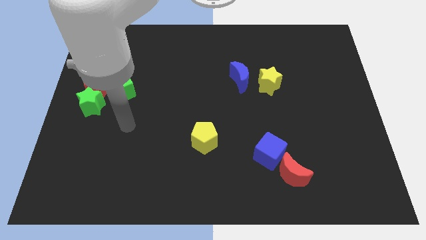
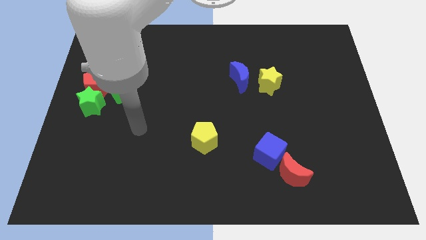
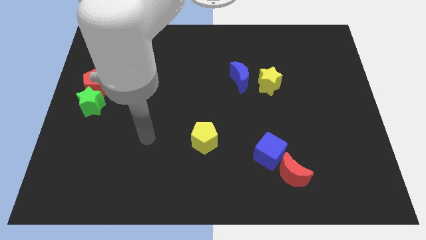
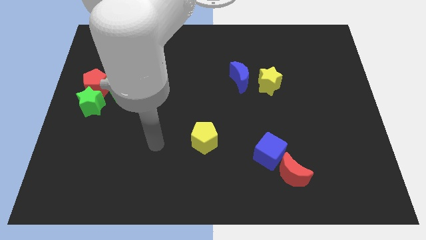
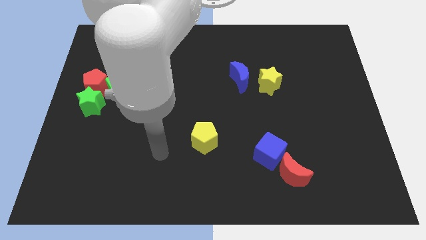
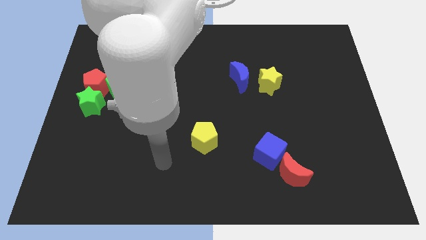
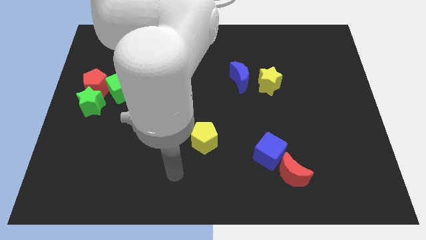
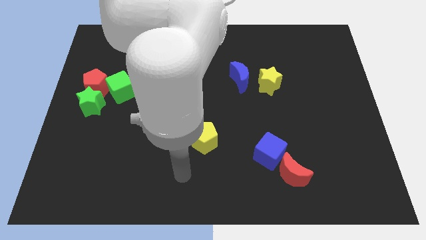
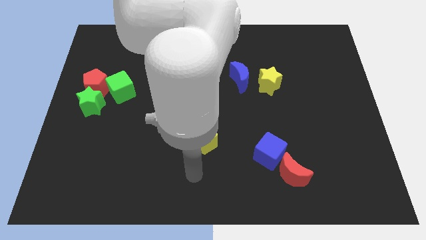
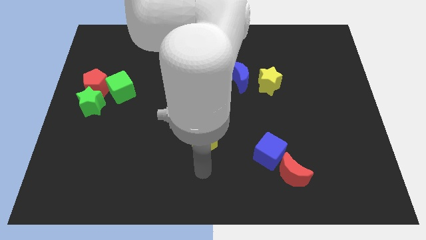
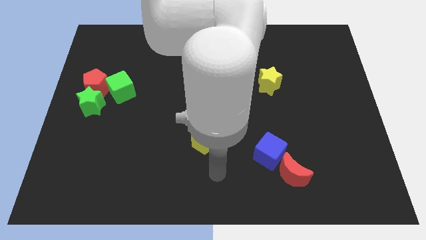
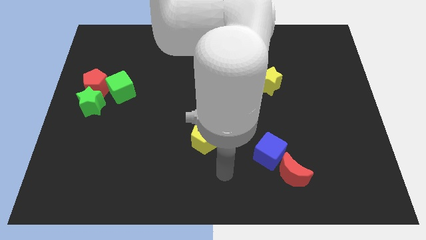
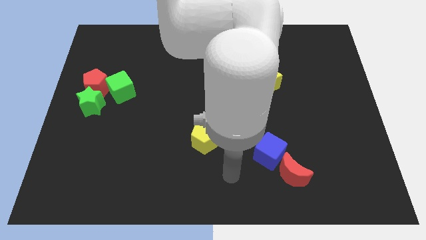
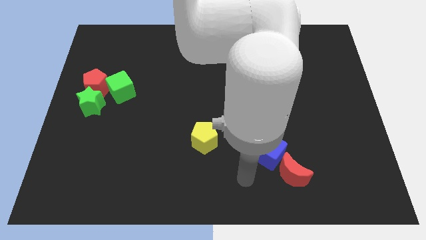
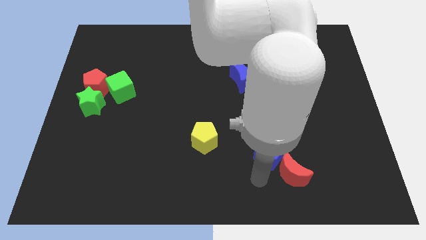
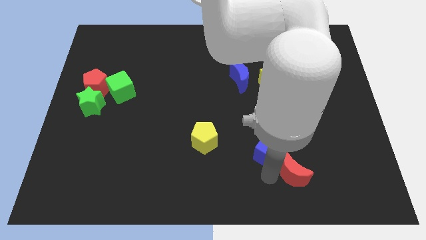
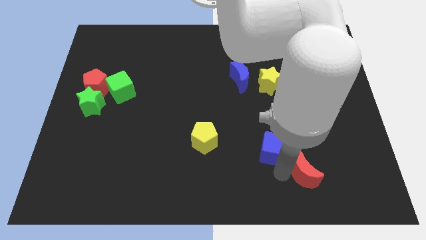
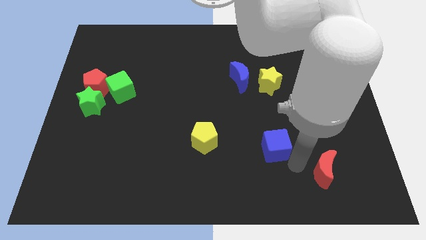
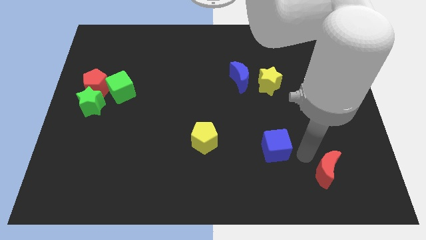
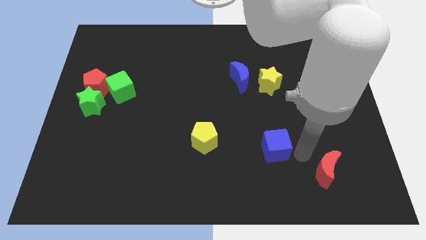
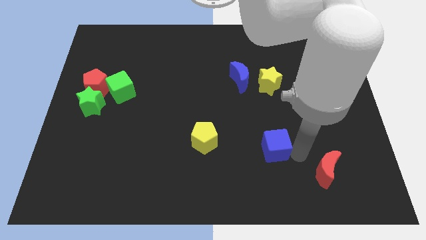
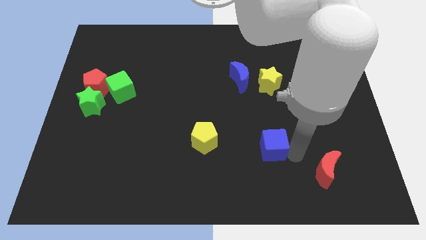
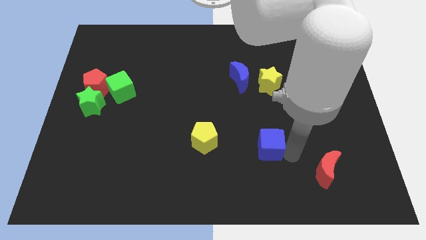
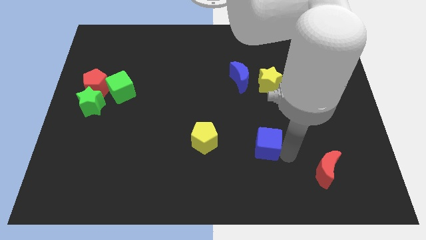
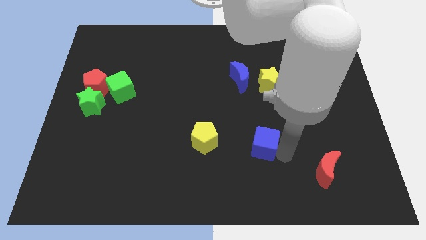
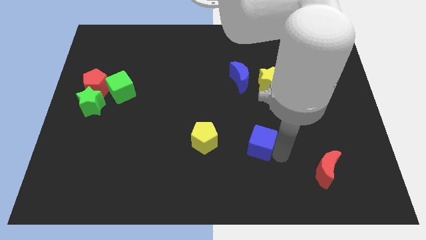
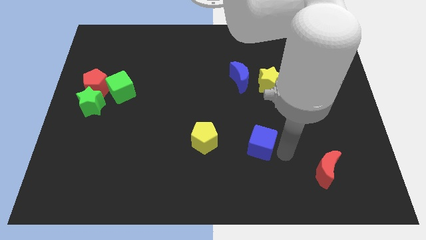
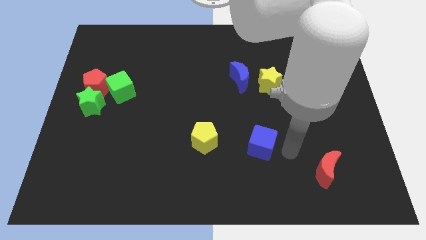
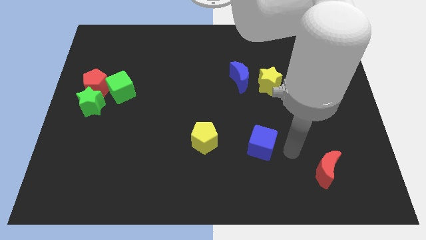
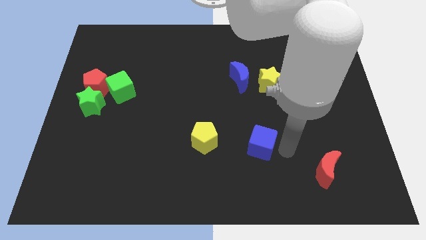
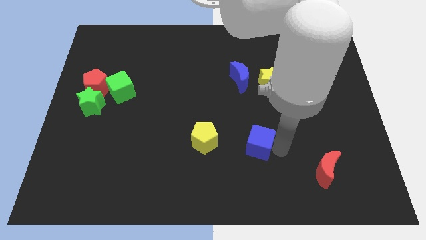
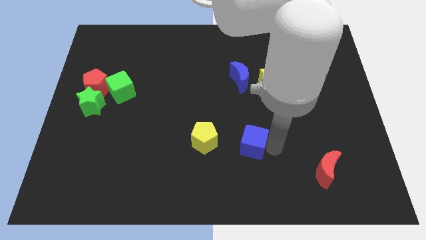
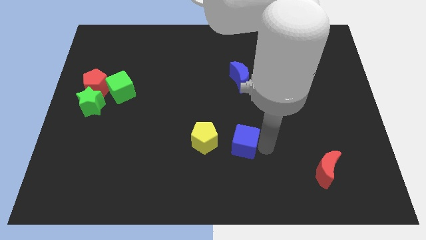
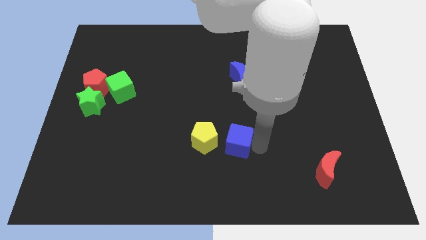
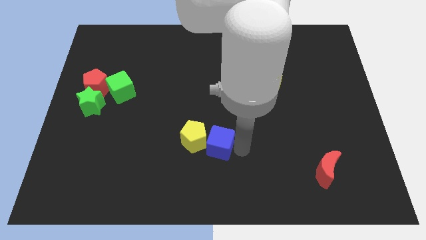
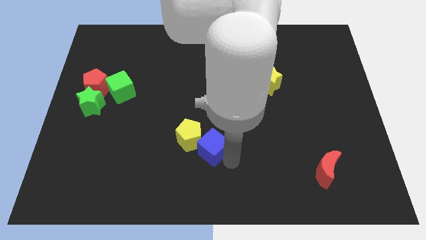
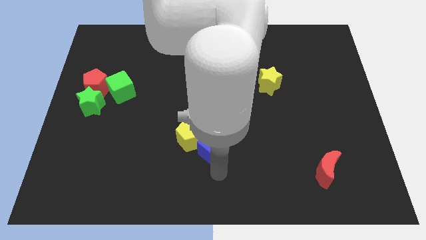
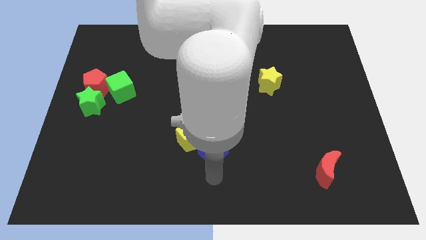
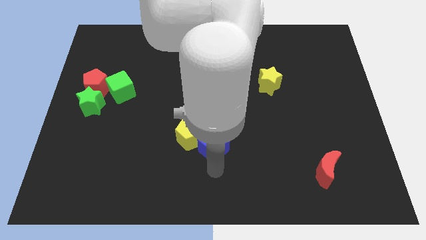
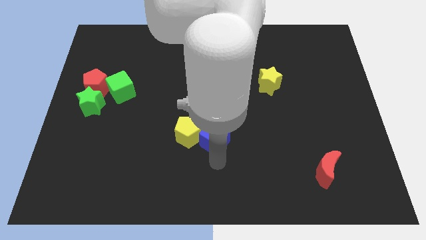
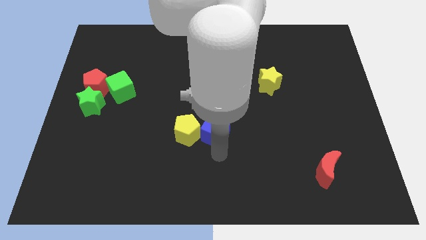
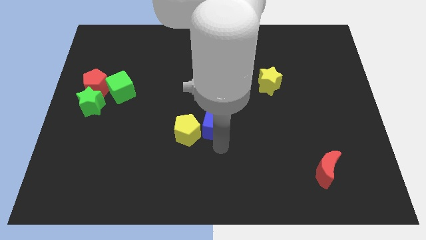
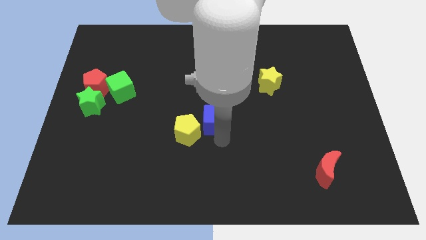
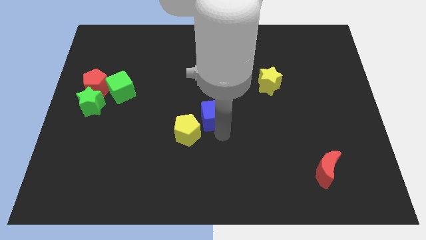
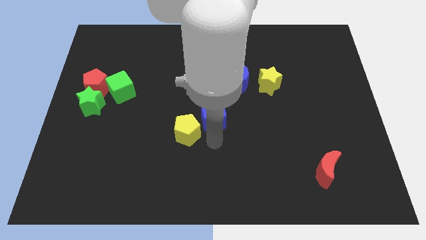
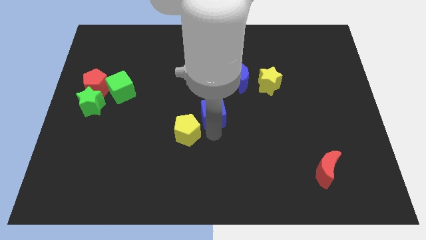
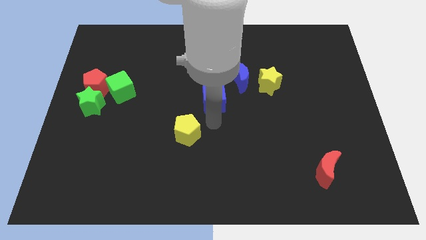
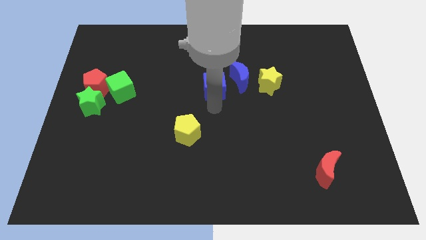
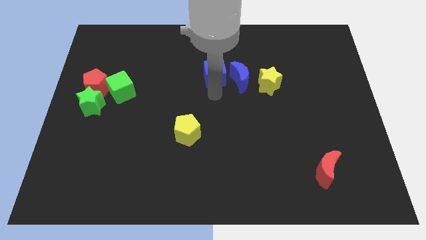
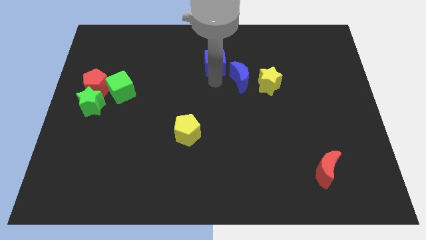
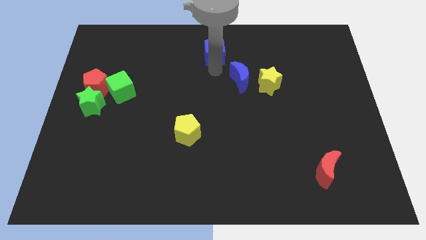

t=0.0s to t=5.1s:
push the blue cube to the towards your base

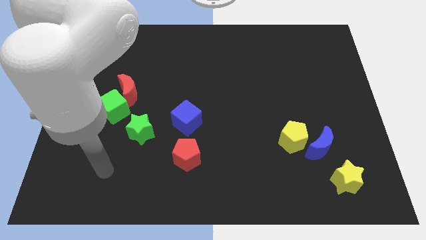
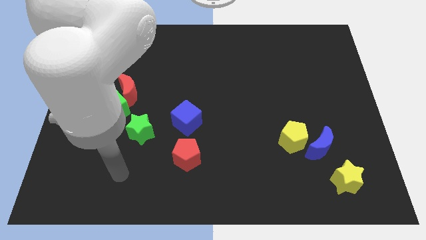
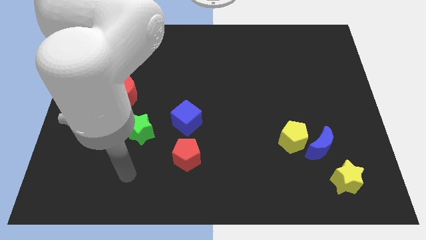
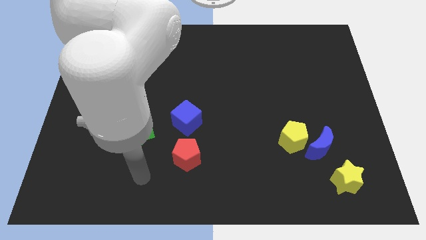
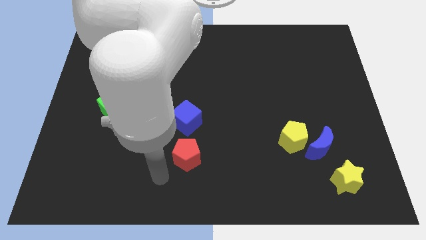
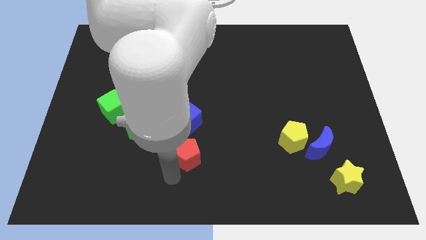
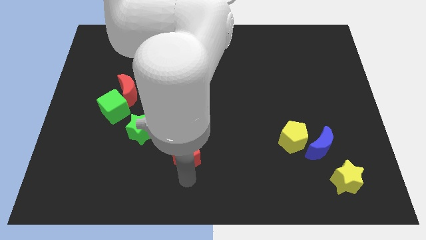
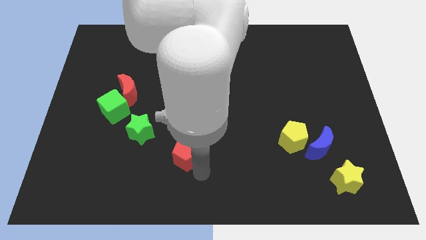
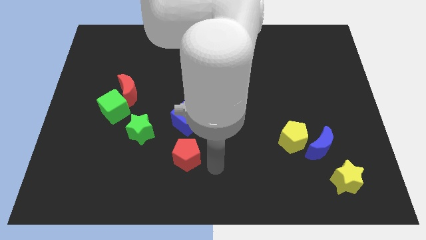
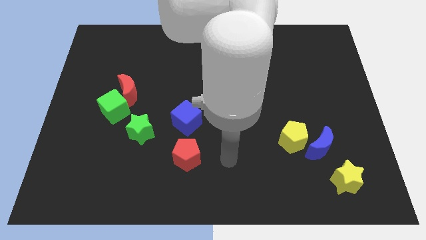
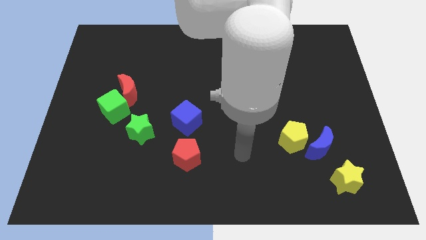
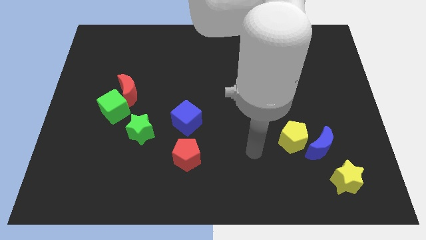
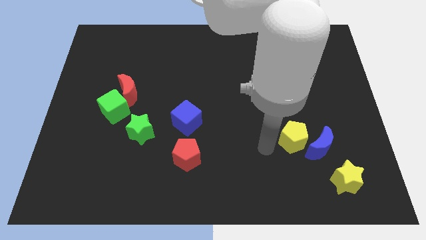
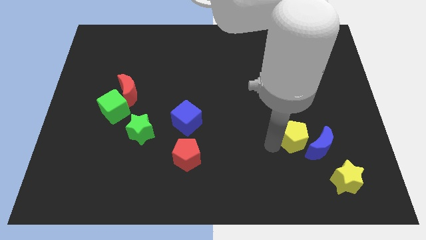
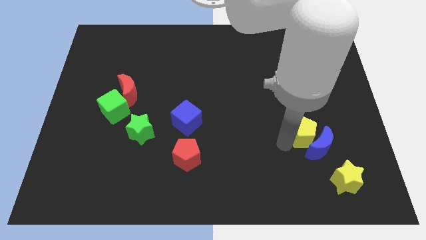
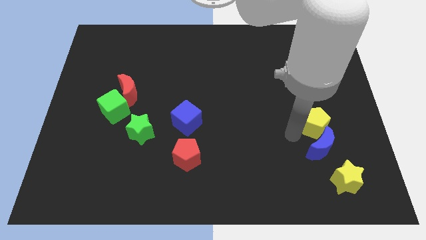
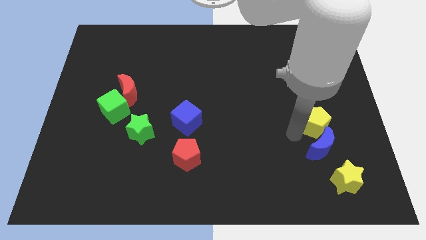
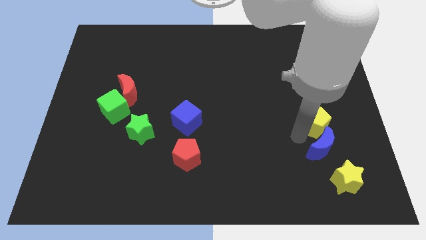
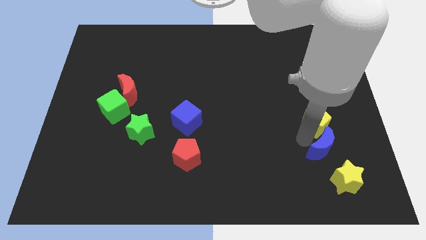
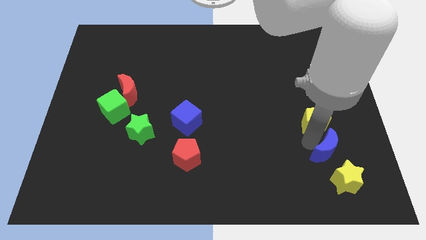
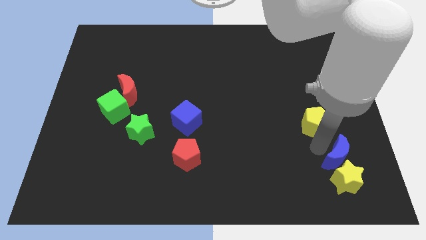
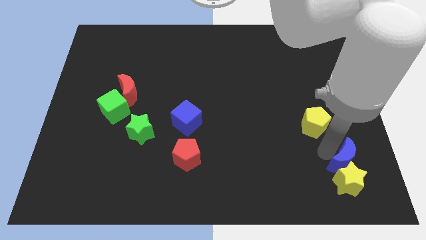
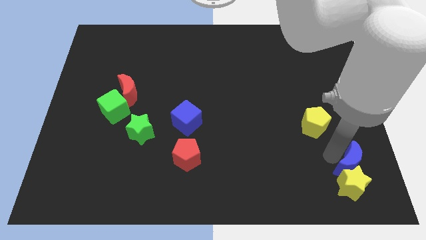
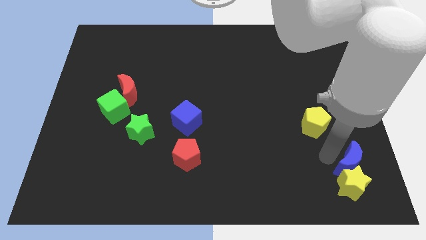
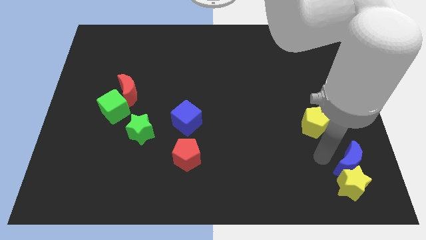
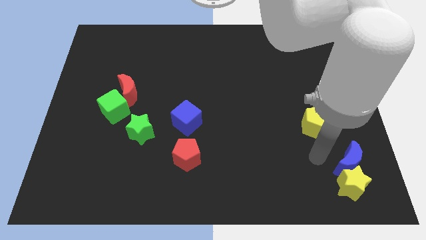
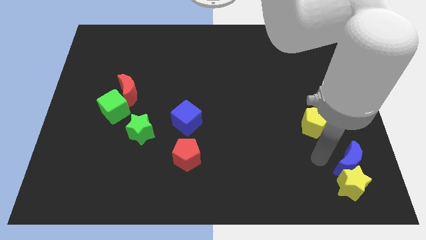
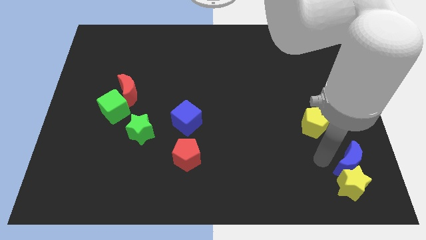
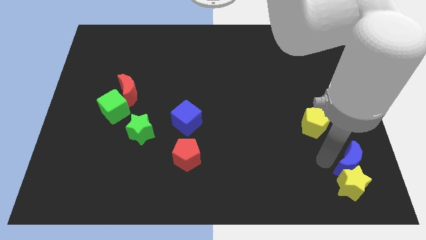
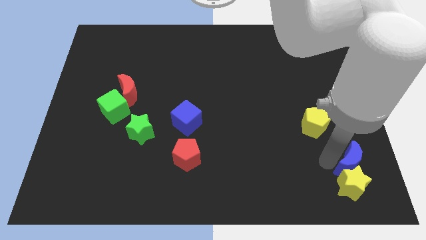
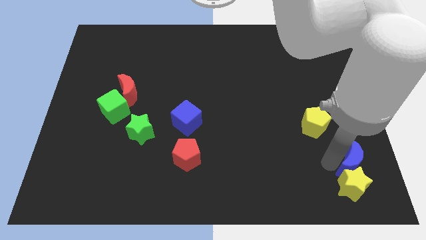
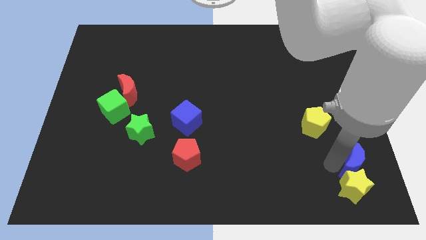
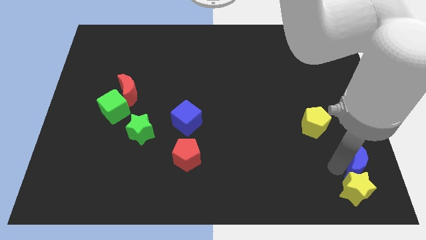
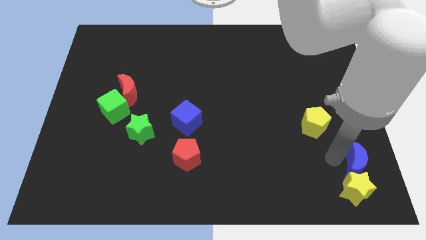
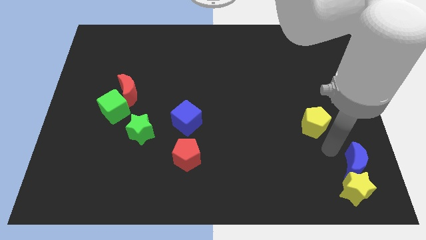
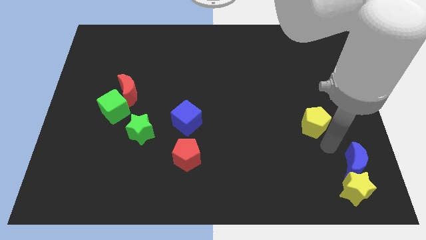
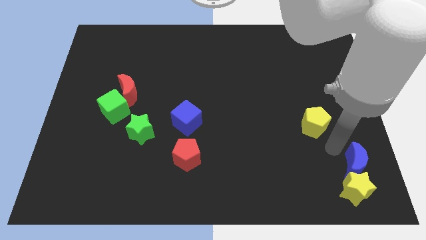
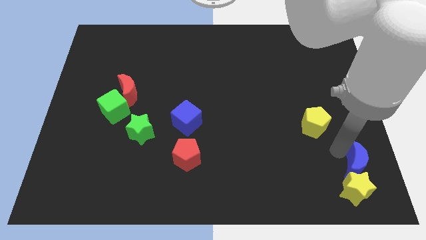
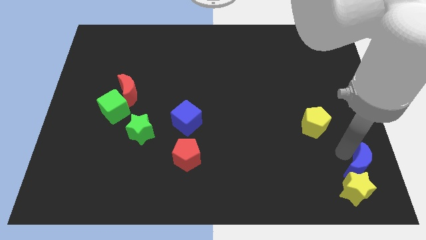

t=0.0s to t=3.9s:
move the blue moon to the bottom right
